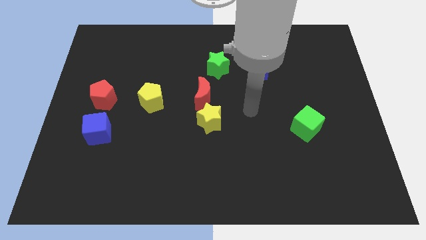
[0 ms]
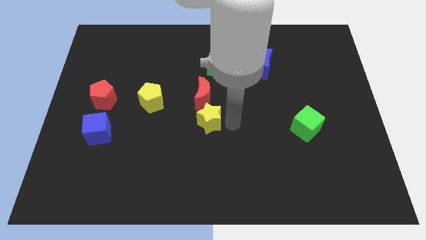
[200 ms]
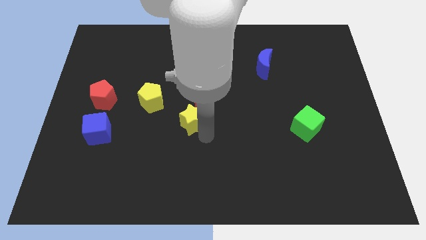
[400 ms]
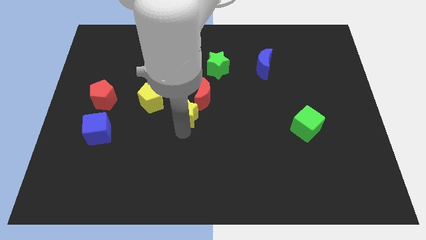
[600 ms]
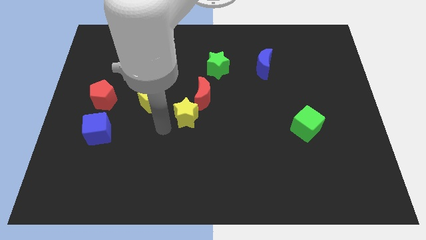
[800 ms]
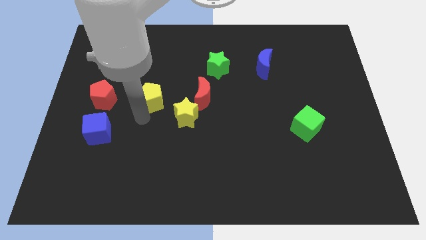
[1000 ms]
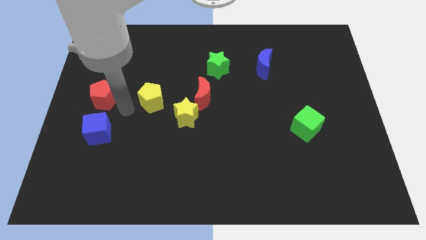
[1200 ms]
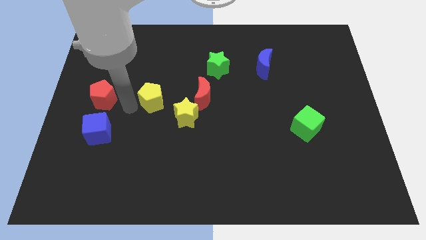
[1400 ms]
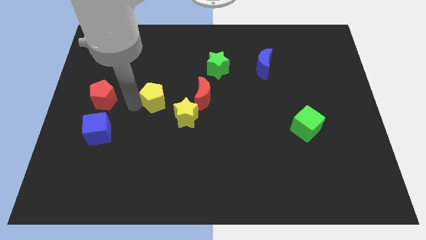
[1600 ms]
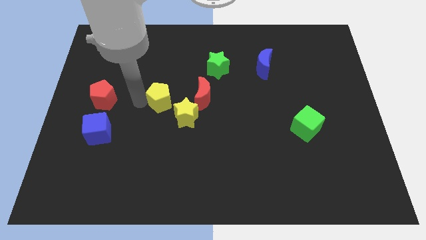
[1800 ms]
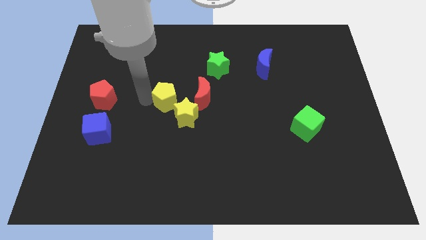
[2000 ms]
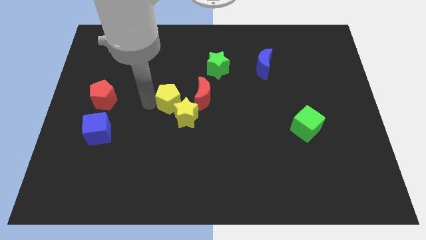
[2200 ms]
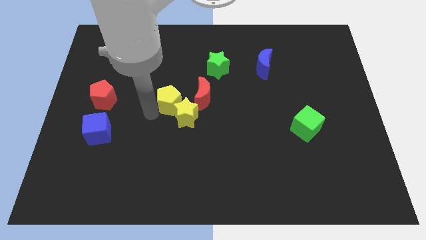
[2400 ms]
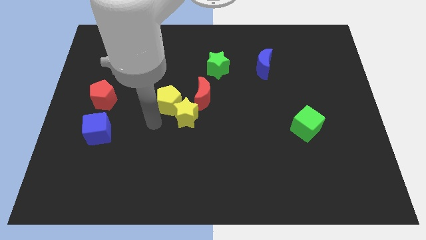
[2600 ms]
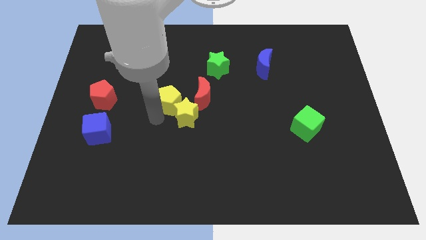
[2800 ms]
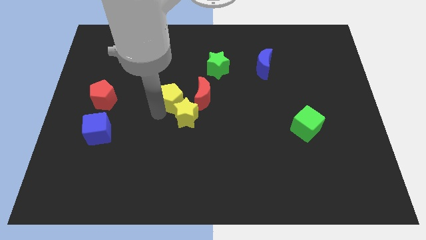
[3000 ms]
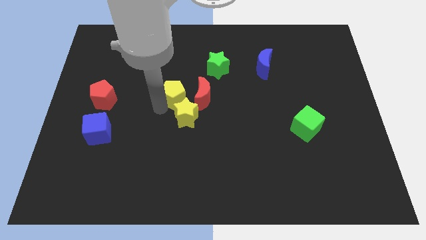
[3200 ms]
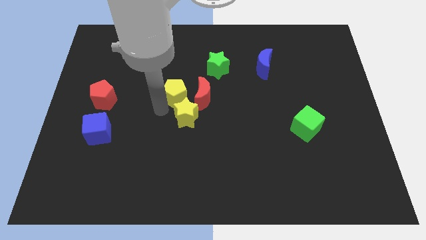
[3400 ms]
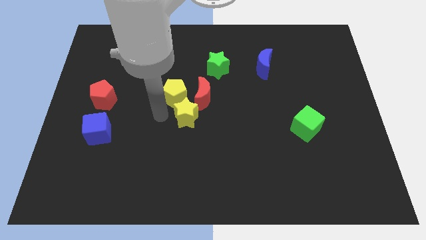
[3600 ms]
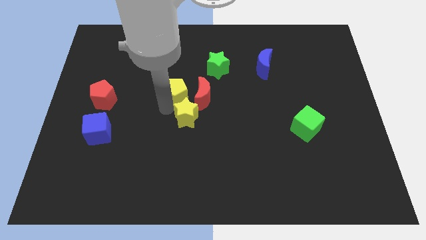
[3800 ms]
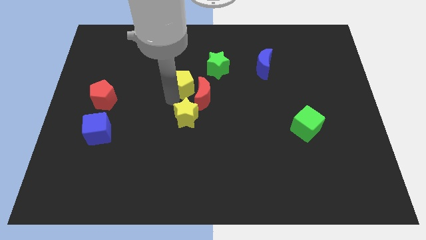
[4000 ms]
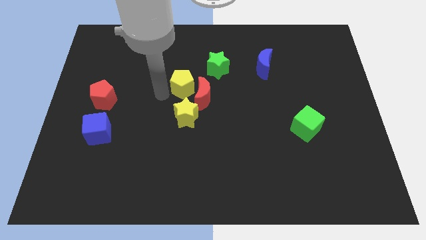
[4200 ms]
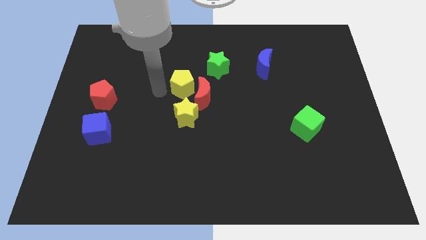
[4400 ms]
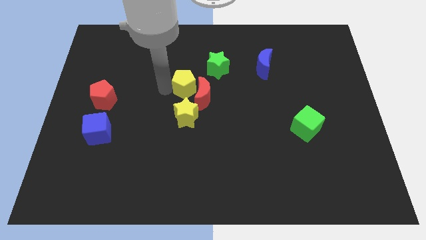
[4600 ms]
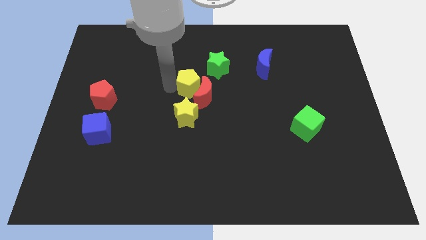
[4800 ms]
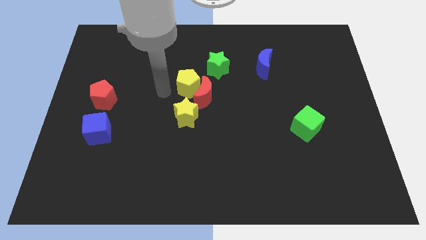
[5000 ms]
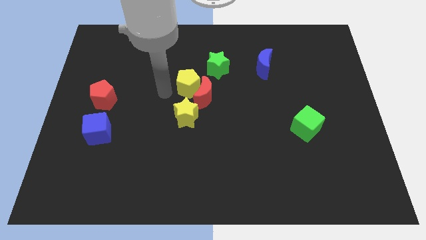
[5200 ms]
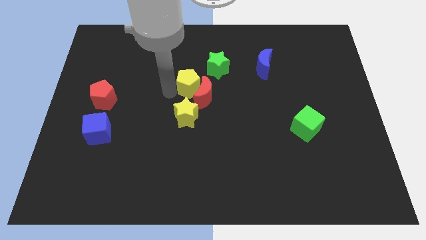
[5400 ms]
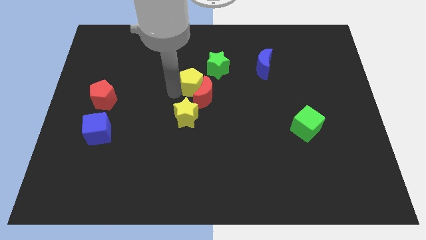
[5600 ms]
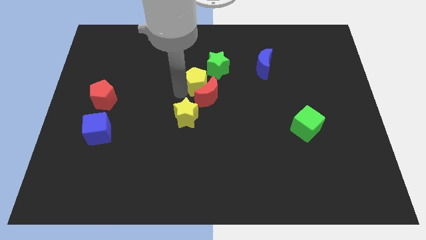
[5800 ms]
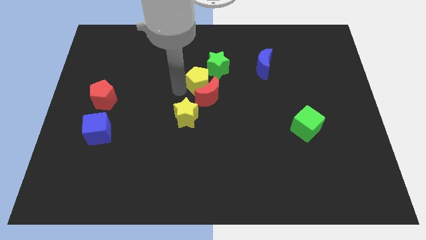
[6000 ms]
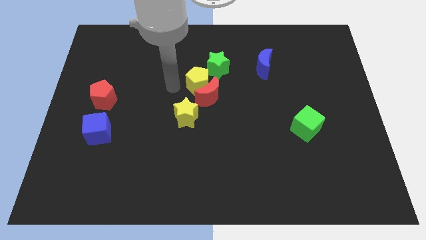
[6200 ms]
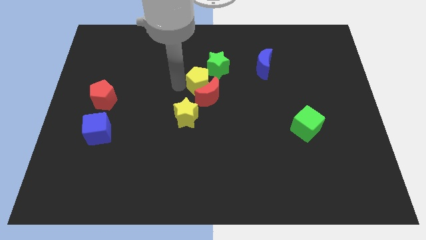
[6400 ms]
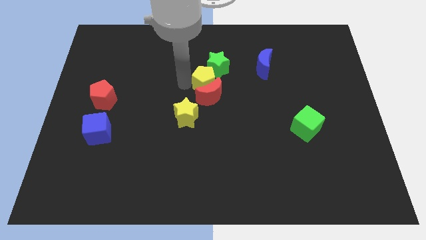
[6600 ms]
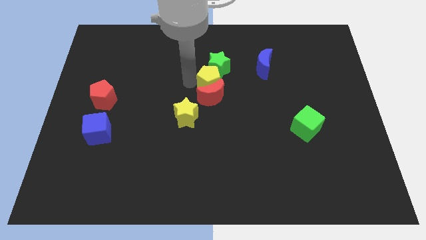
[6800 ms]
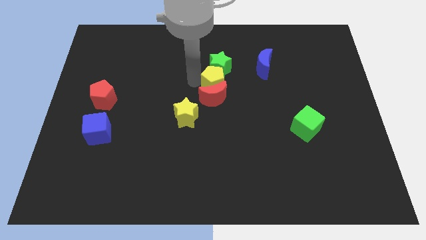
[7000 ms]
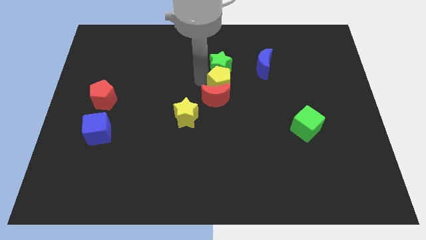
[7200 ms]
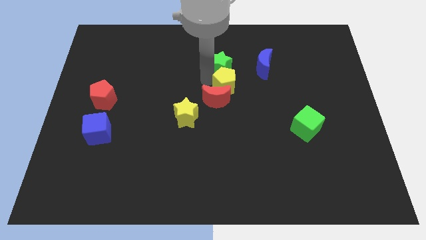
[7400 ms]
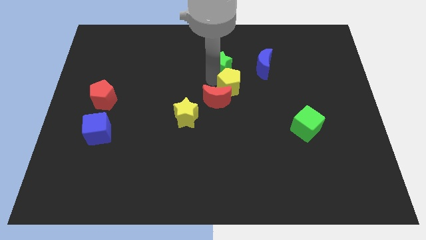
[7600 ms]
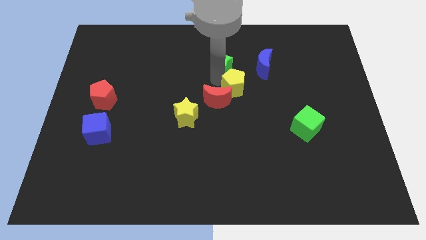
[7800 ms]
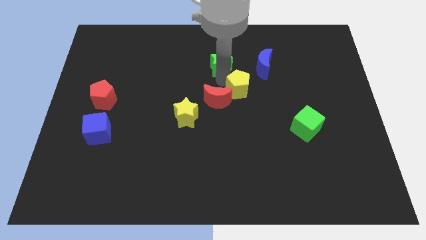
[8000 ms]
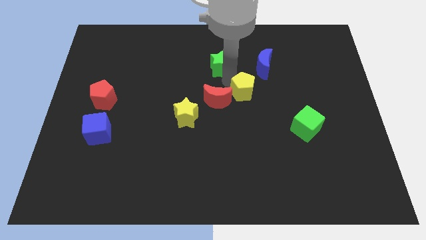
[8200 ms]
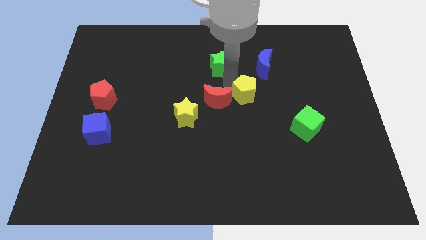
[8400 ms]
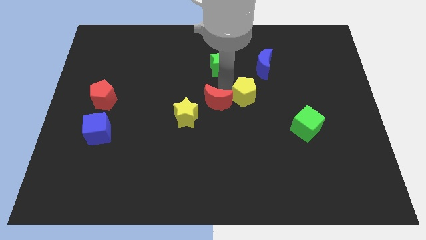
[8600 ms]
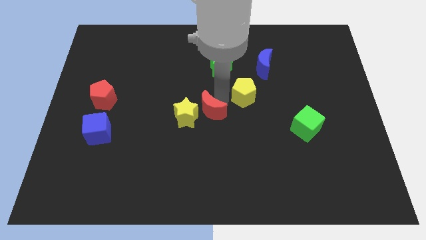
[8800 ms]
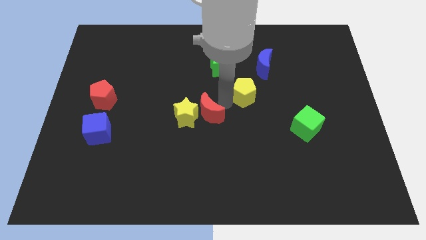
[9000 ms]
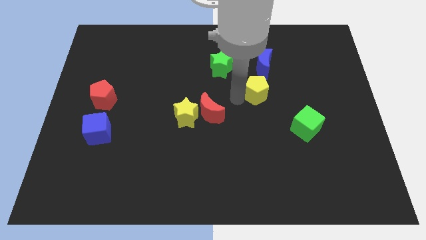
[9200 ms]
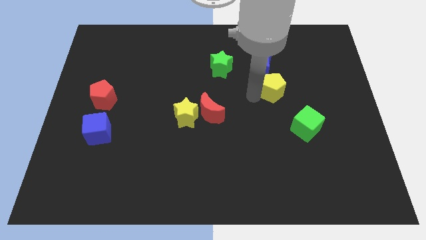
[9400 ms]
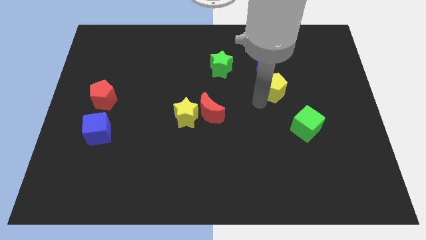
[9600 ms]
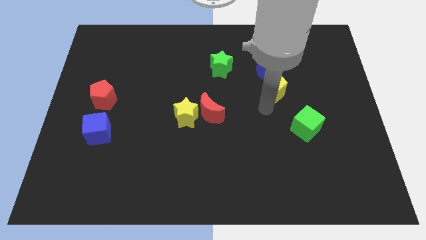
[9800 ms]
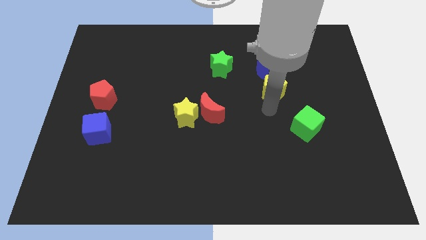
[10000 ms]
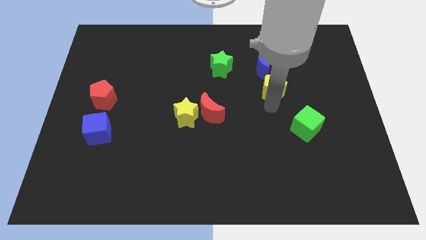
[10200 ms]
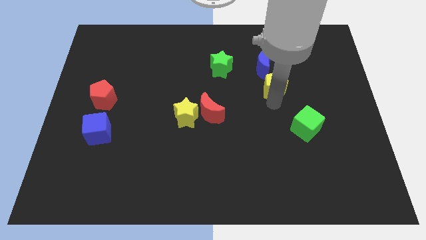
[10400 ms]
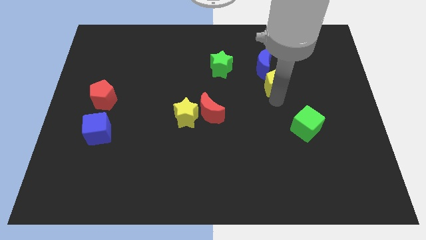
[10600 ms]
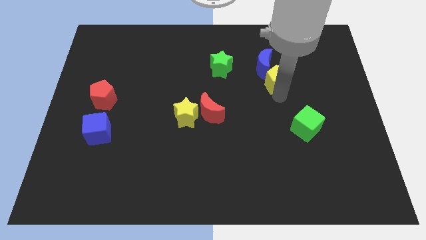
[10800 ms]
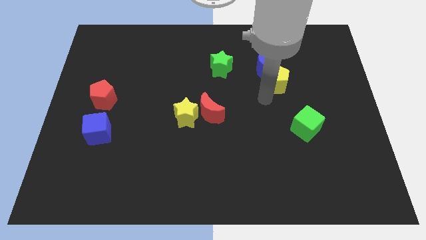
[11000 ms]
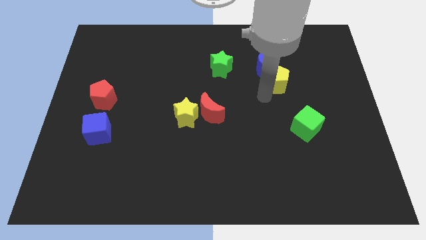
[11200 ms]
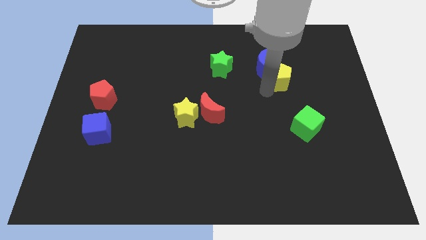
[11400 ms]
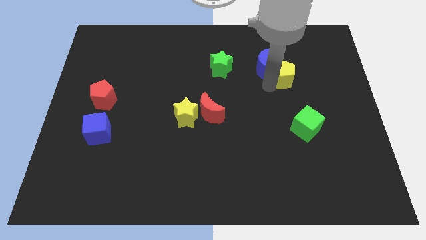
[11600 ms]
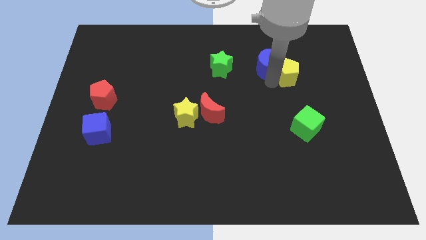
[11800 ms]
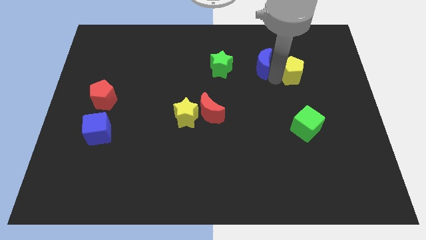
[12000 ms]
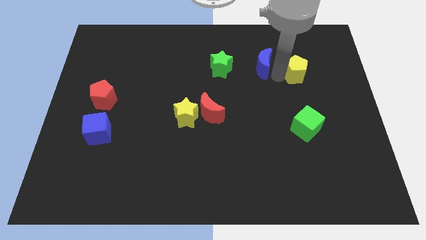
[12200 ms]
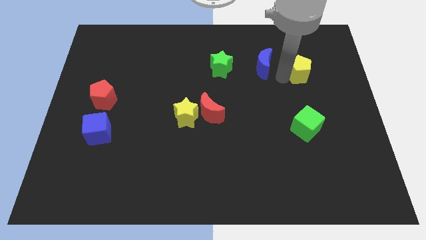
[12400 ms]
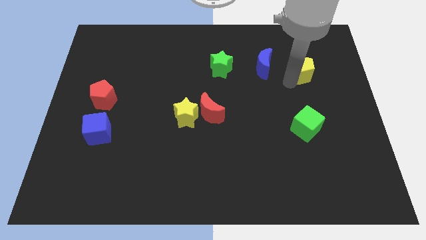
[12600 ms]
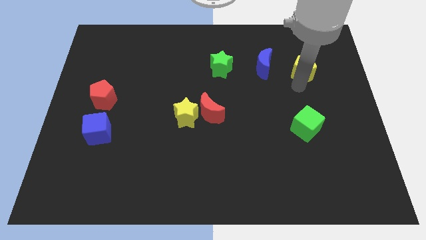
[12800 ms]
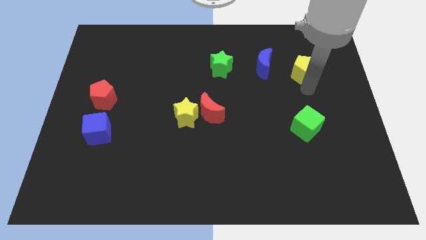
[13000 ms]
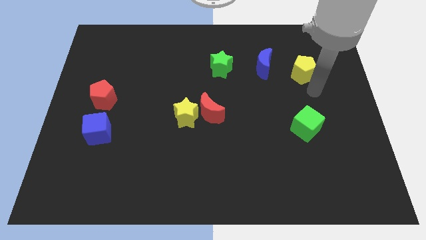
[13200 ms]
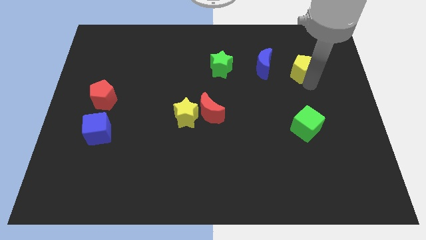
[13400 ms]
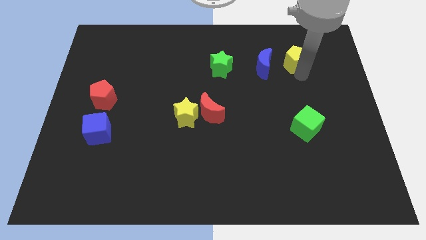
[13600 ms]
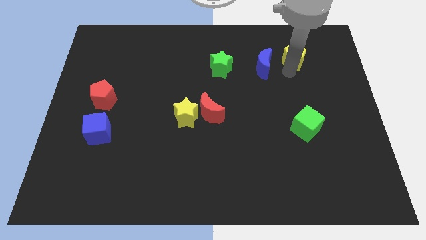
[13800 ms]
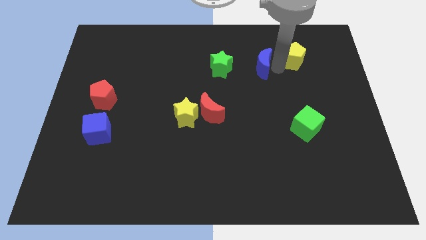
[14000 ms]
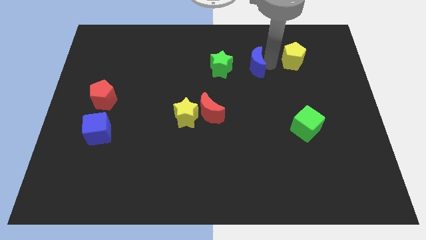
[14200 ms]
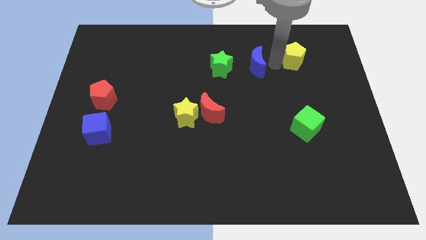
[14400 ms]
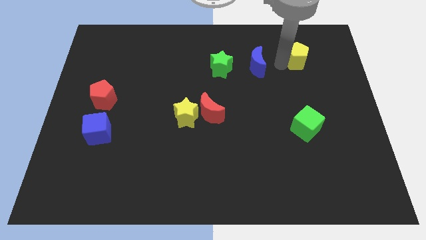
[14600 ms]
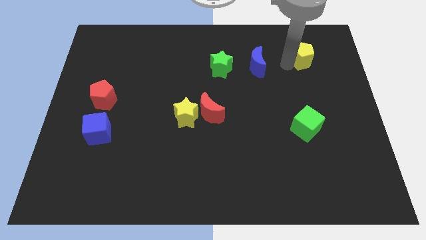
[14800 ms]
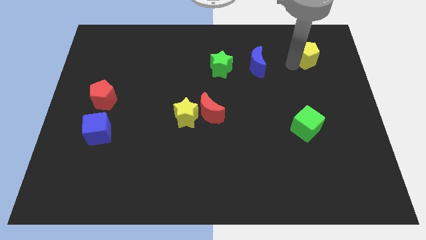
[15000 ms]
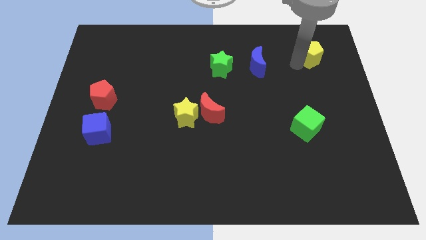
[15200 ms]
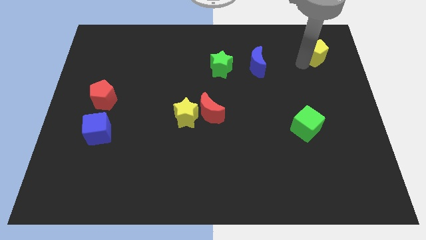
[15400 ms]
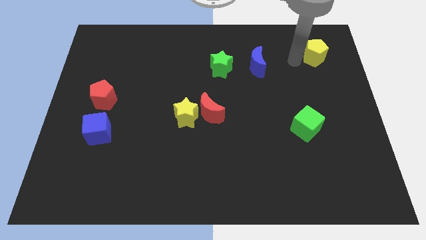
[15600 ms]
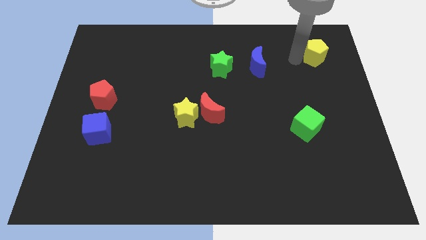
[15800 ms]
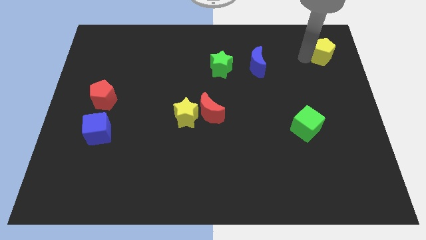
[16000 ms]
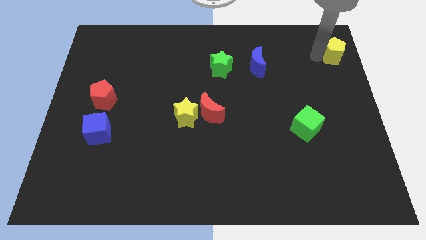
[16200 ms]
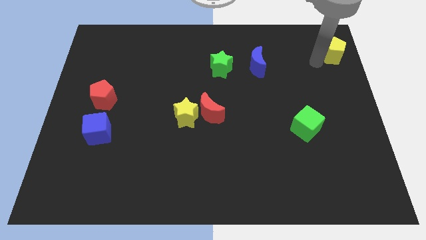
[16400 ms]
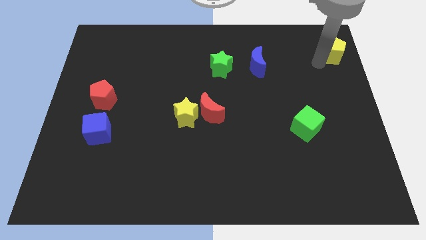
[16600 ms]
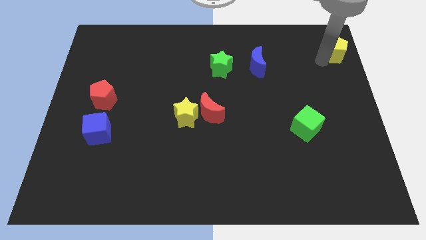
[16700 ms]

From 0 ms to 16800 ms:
push the yellow pentagon to the top right corner
